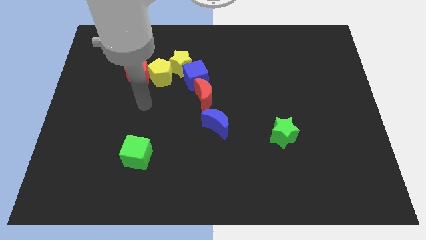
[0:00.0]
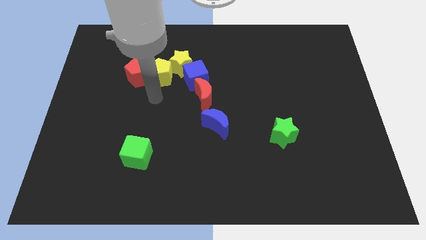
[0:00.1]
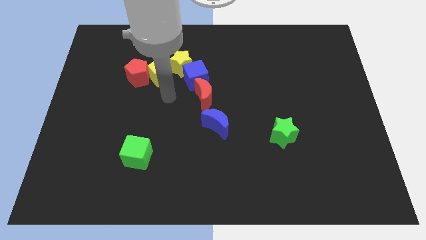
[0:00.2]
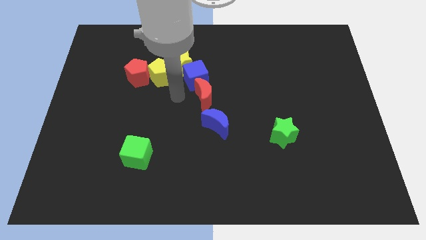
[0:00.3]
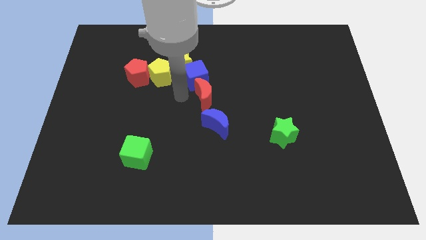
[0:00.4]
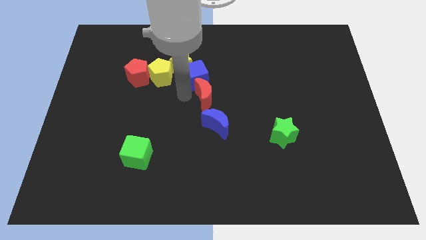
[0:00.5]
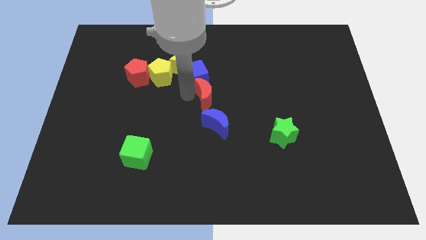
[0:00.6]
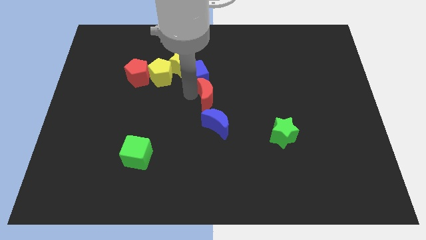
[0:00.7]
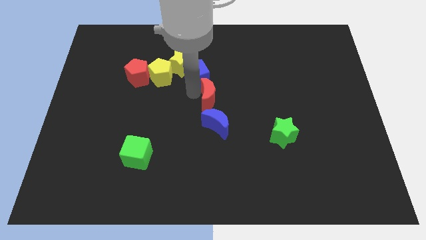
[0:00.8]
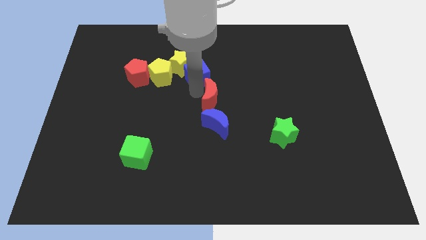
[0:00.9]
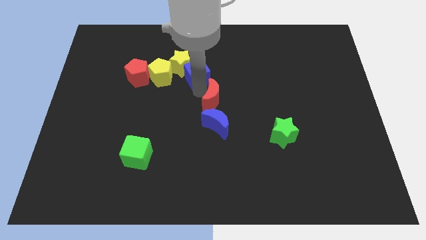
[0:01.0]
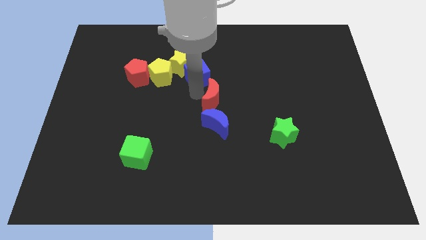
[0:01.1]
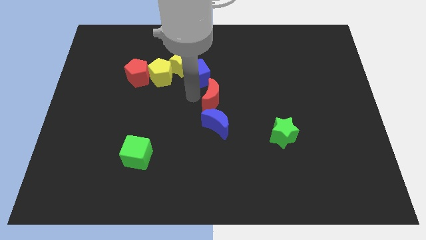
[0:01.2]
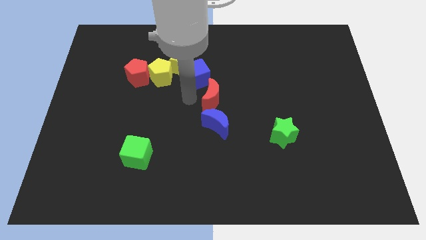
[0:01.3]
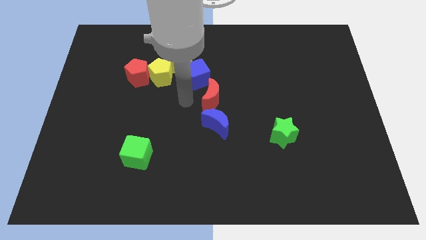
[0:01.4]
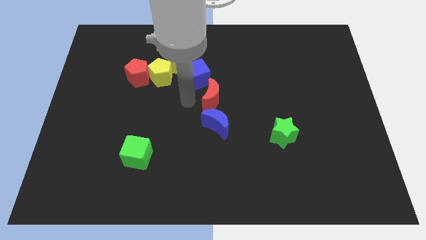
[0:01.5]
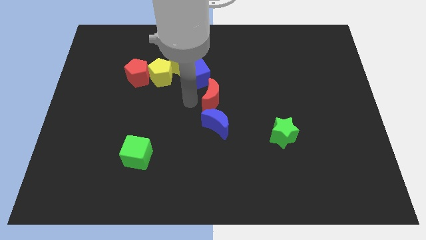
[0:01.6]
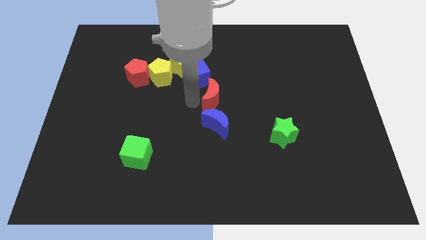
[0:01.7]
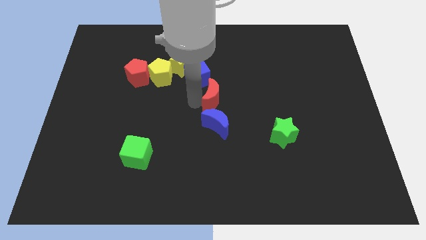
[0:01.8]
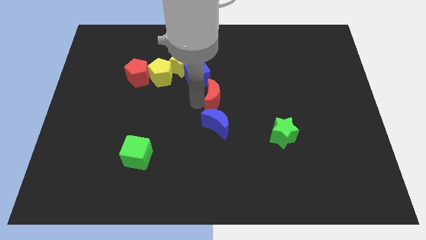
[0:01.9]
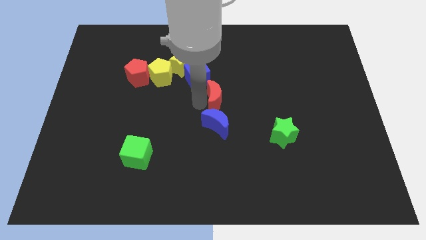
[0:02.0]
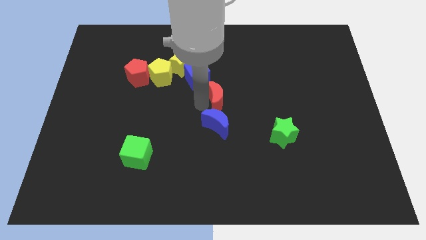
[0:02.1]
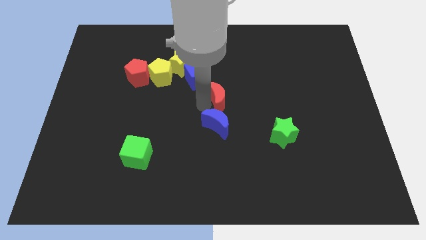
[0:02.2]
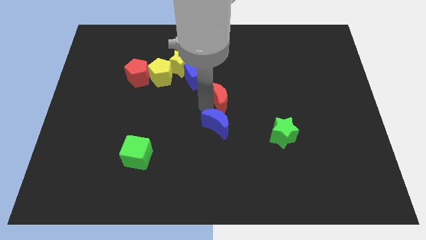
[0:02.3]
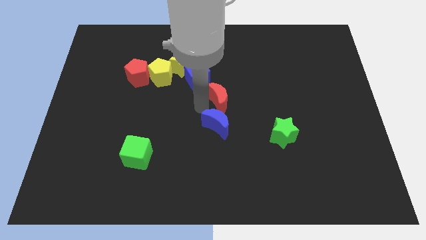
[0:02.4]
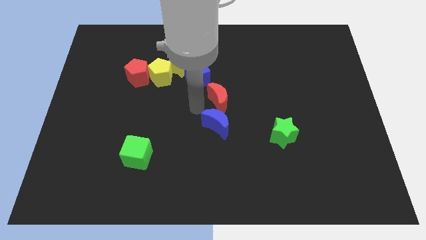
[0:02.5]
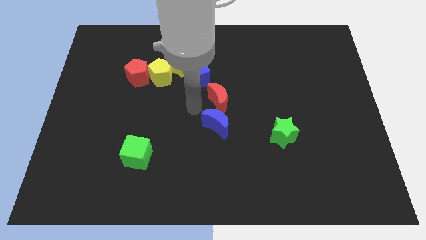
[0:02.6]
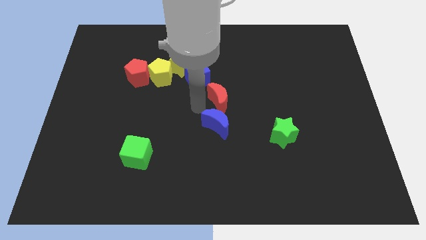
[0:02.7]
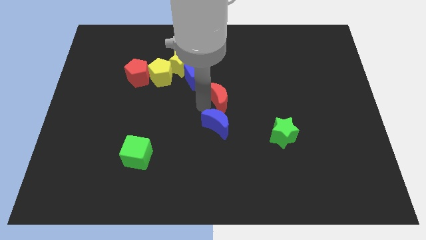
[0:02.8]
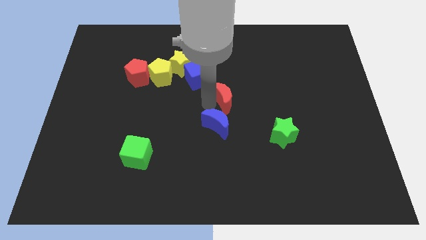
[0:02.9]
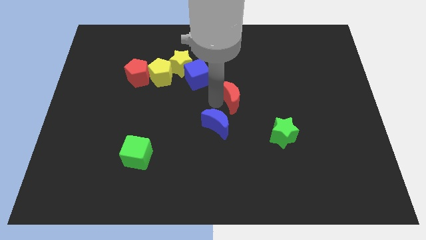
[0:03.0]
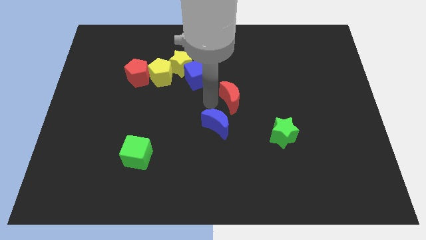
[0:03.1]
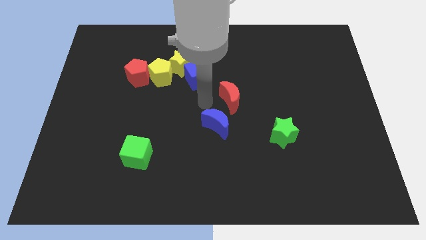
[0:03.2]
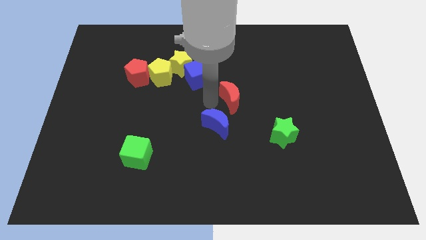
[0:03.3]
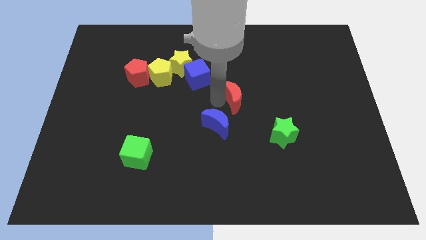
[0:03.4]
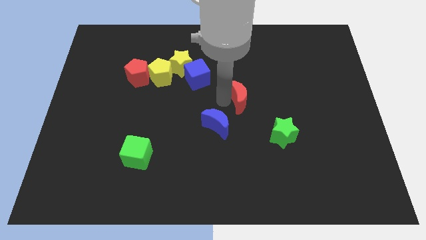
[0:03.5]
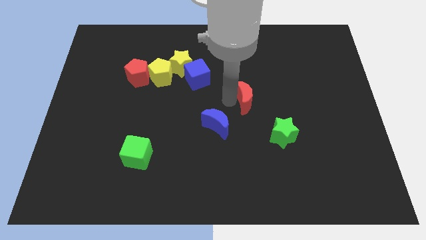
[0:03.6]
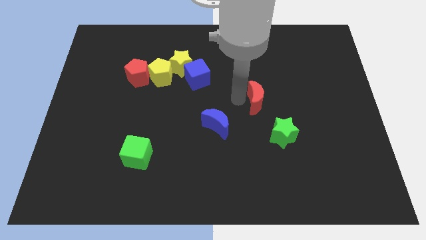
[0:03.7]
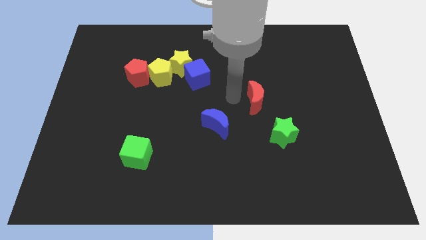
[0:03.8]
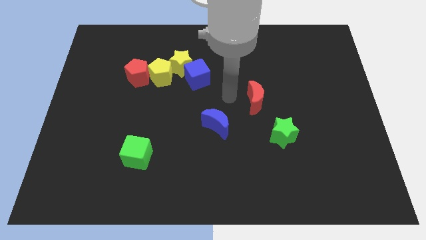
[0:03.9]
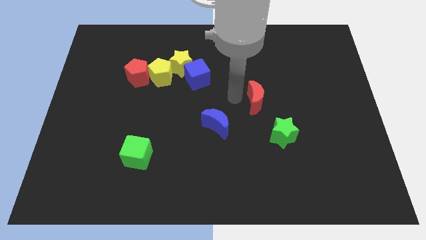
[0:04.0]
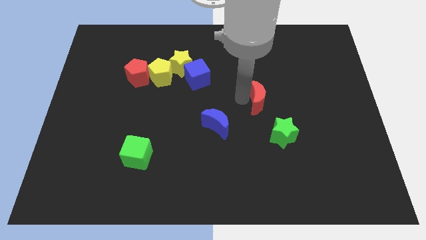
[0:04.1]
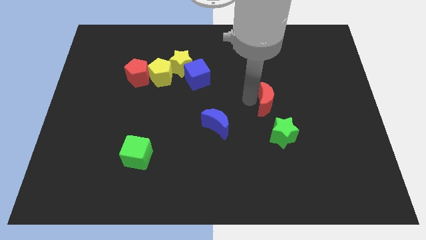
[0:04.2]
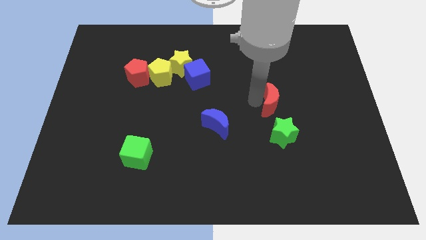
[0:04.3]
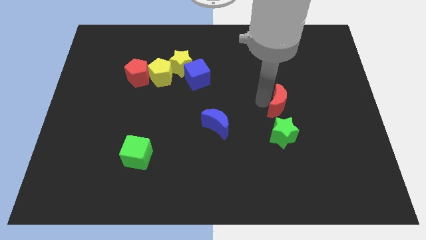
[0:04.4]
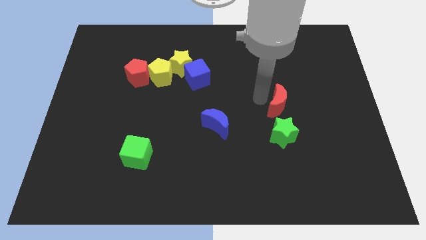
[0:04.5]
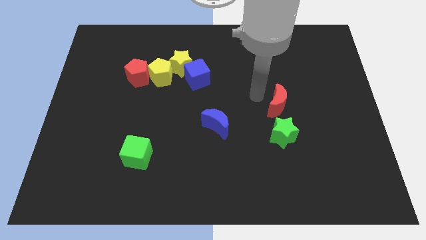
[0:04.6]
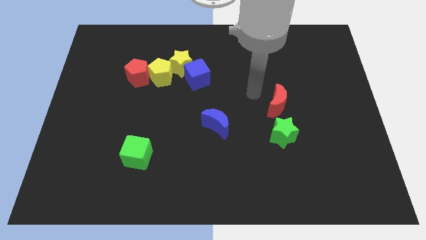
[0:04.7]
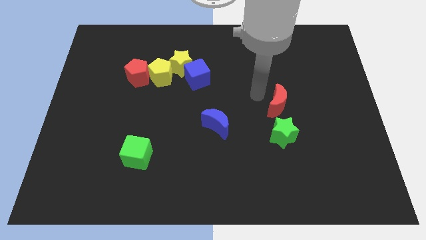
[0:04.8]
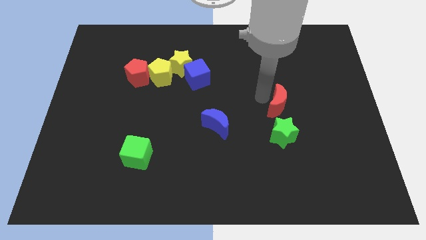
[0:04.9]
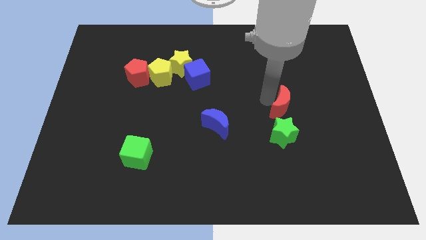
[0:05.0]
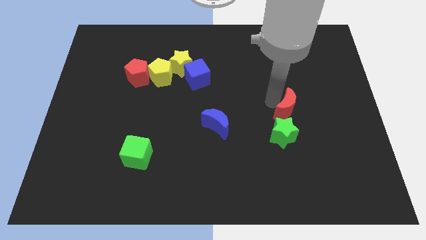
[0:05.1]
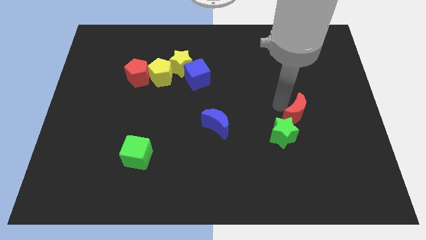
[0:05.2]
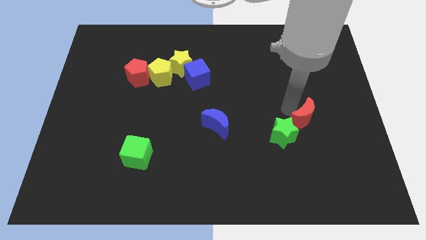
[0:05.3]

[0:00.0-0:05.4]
move the red moon right of the green star

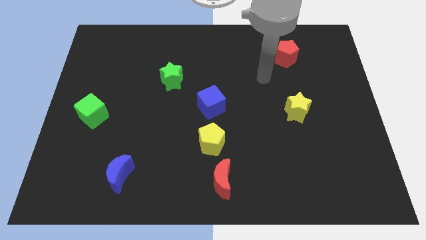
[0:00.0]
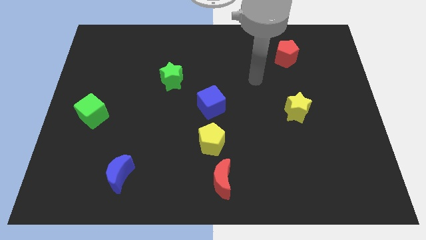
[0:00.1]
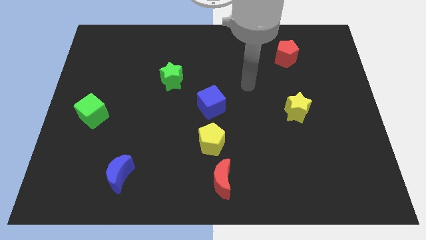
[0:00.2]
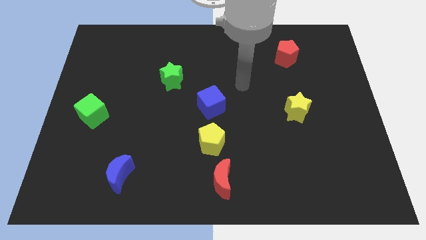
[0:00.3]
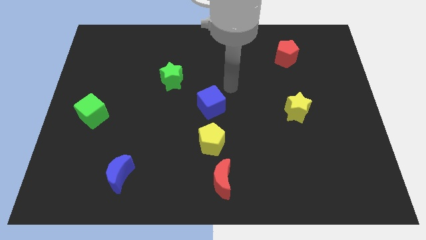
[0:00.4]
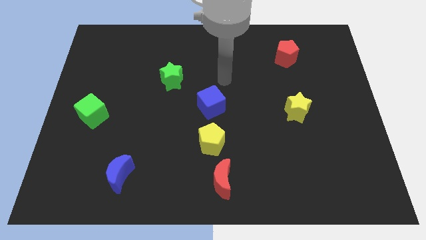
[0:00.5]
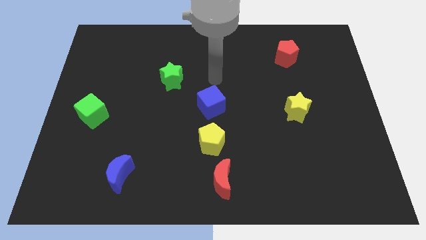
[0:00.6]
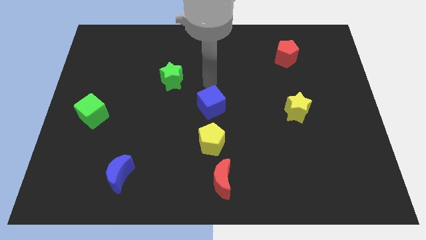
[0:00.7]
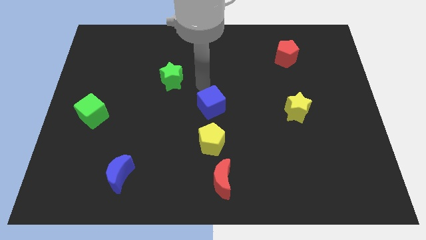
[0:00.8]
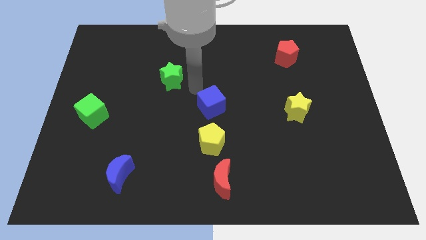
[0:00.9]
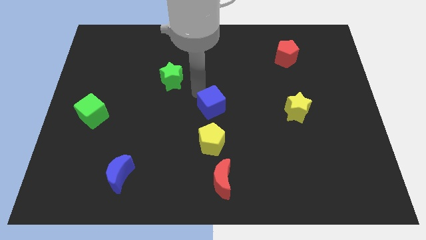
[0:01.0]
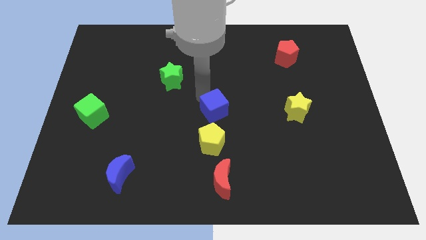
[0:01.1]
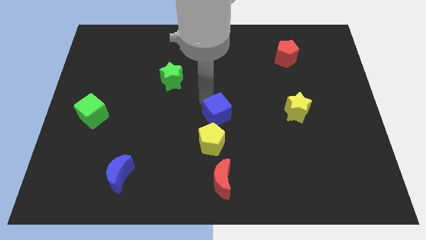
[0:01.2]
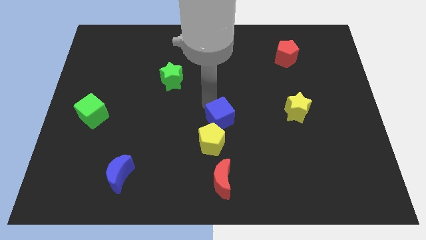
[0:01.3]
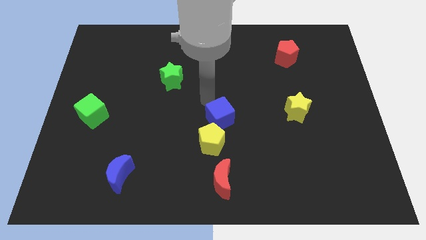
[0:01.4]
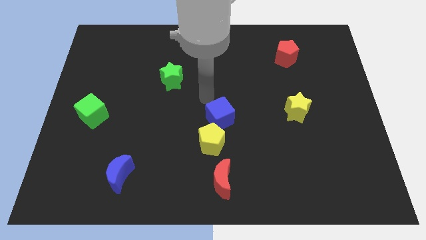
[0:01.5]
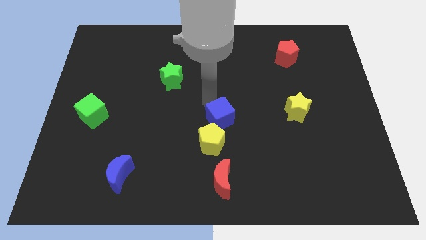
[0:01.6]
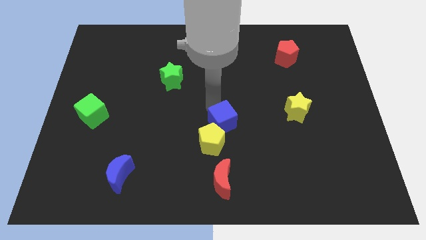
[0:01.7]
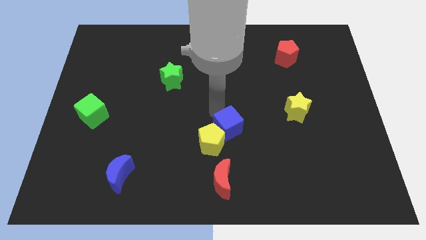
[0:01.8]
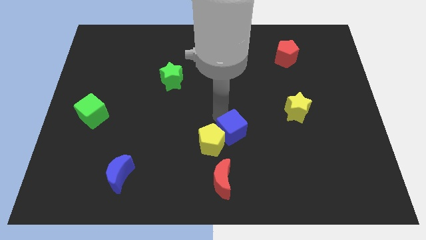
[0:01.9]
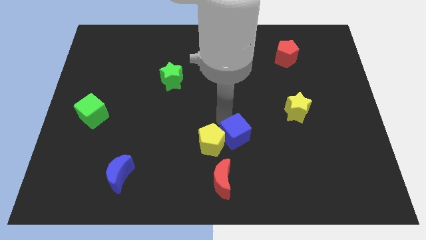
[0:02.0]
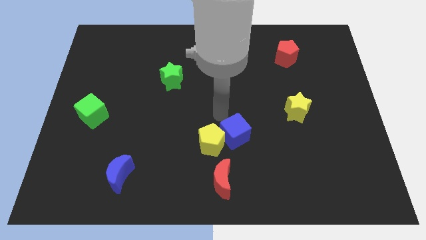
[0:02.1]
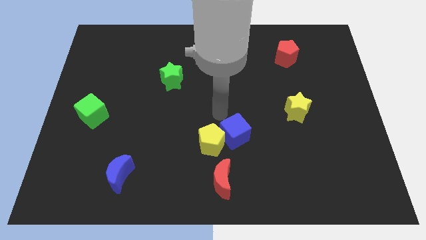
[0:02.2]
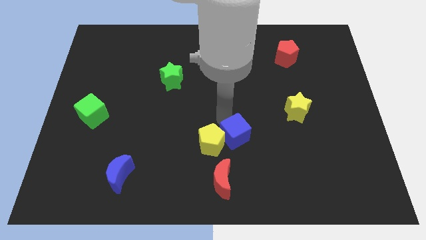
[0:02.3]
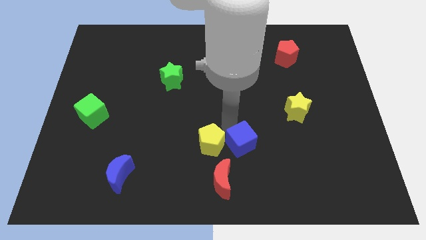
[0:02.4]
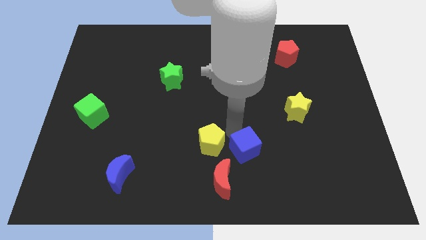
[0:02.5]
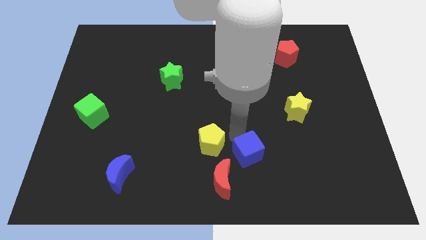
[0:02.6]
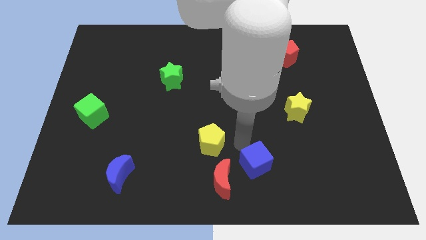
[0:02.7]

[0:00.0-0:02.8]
push the blue cube just right of the red moon

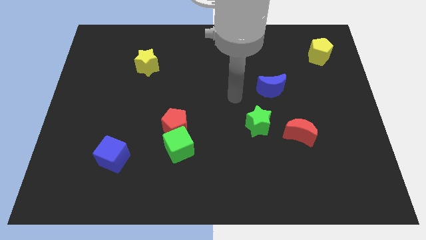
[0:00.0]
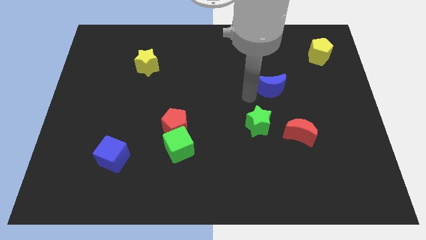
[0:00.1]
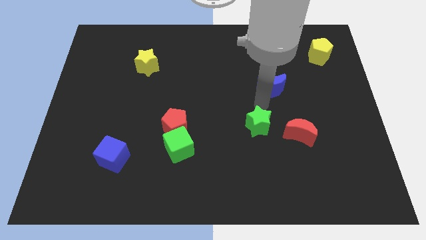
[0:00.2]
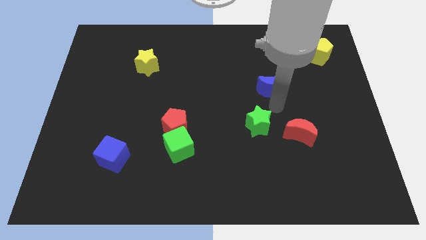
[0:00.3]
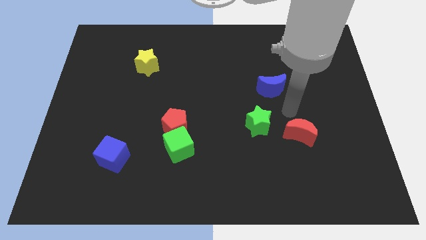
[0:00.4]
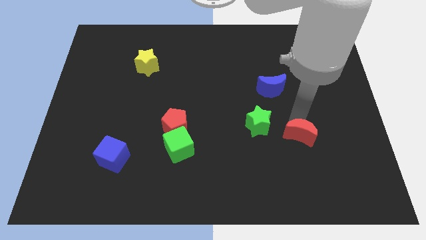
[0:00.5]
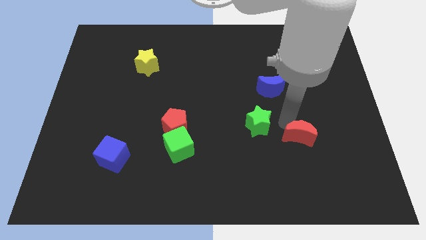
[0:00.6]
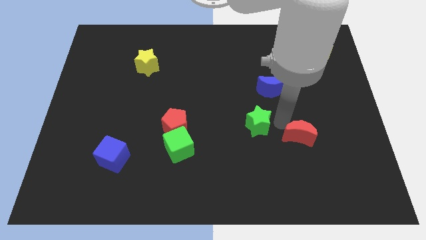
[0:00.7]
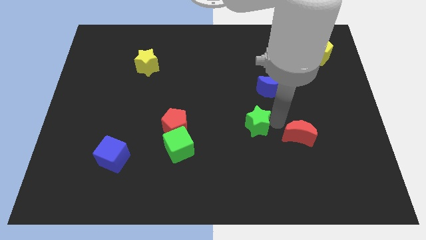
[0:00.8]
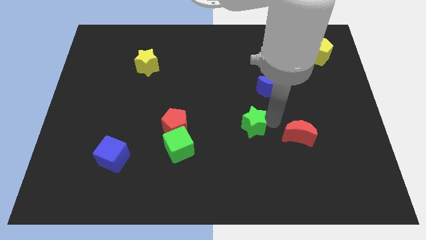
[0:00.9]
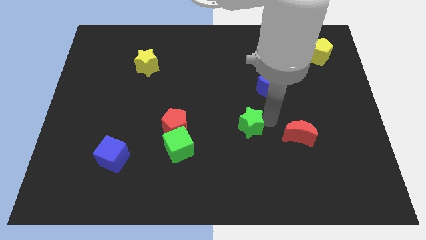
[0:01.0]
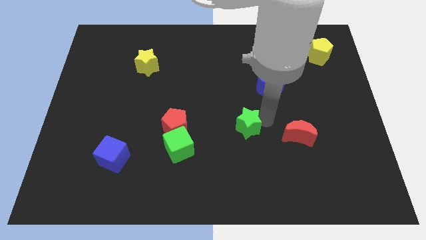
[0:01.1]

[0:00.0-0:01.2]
slide the green star to the right of the red pentagon
